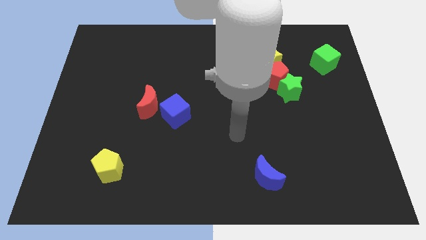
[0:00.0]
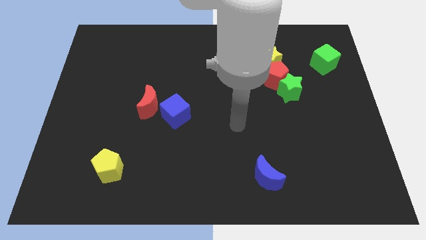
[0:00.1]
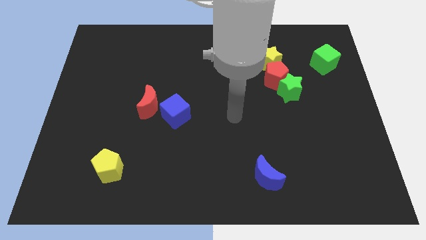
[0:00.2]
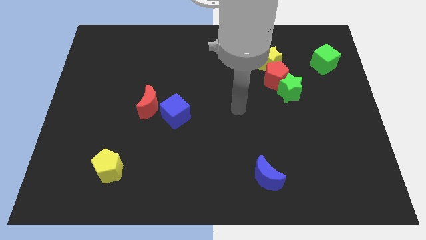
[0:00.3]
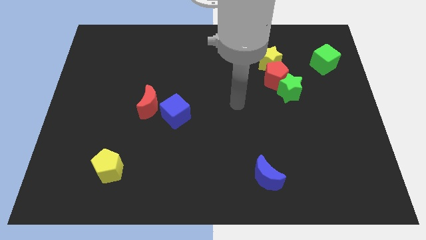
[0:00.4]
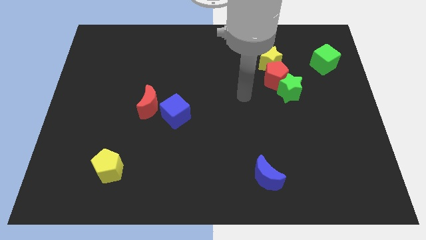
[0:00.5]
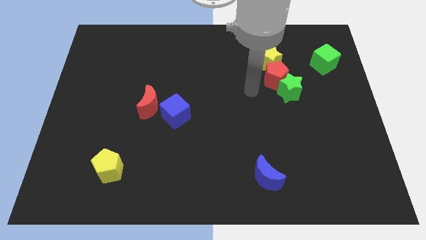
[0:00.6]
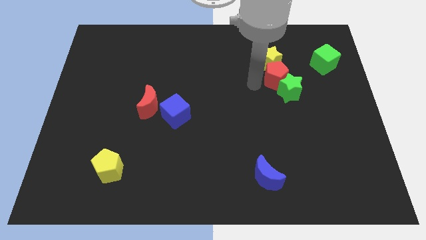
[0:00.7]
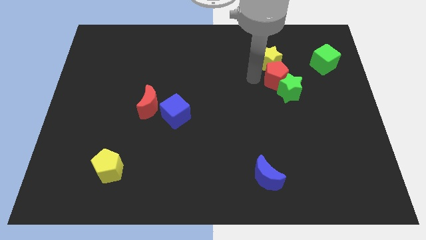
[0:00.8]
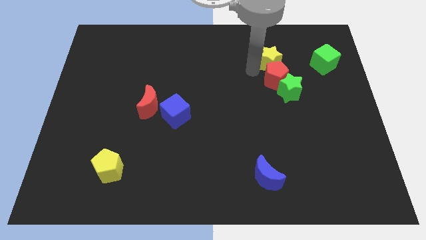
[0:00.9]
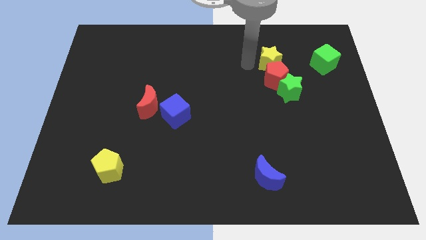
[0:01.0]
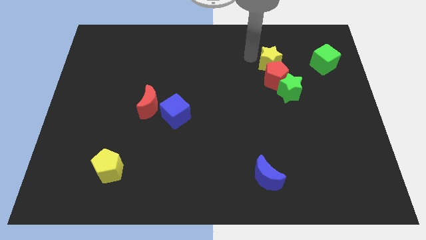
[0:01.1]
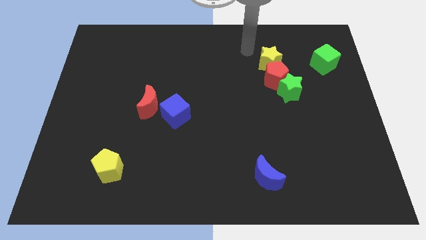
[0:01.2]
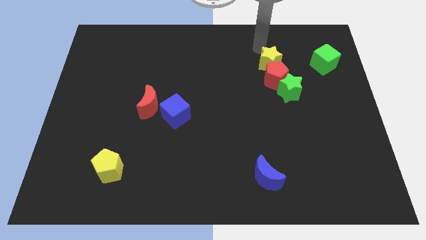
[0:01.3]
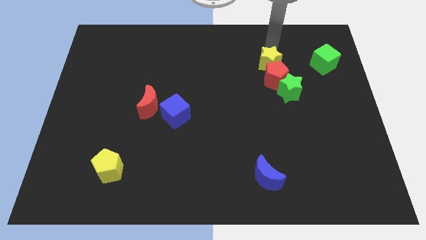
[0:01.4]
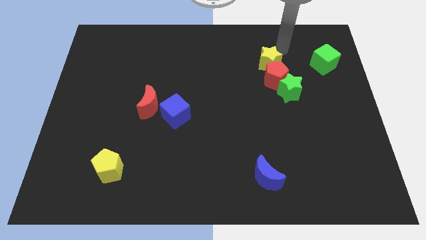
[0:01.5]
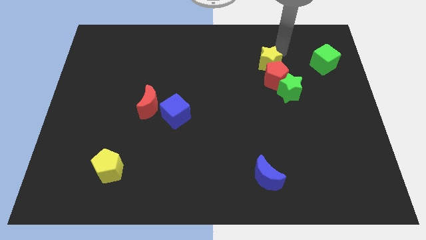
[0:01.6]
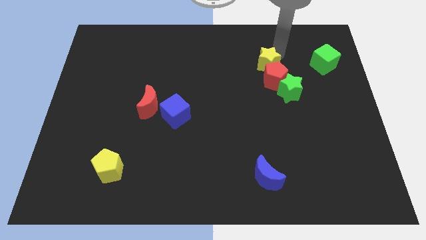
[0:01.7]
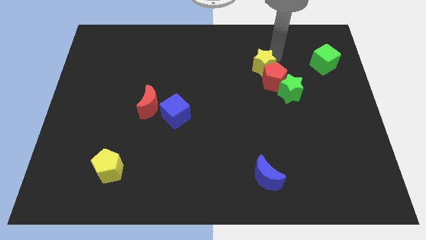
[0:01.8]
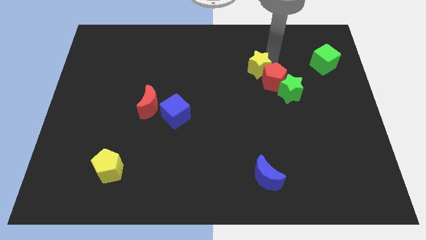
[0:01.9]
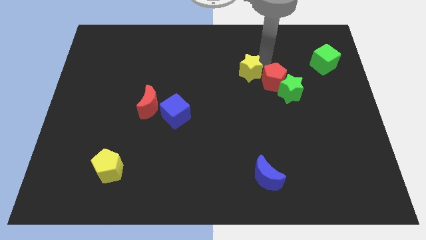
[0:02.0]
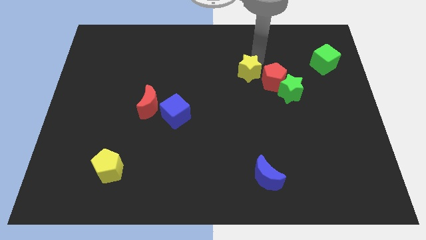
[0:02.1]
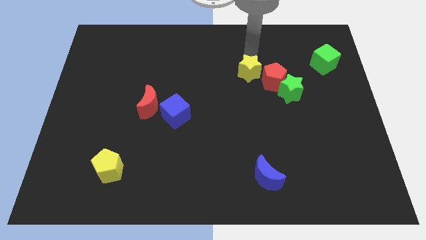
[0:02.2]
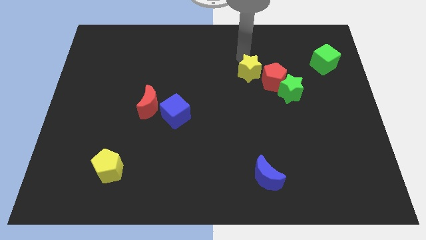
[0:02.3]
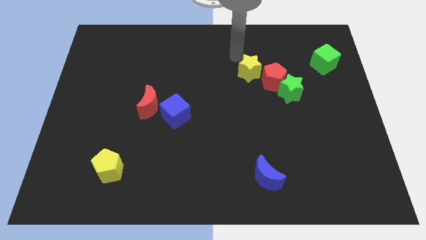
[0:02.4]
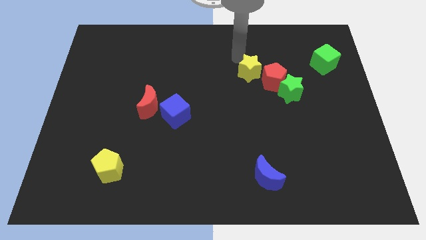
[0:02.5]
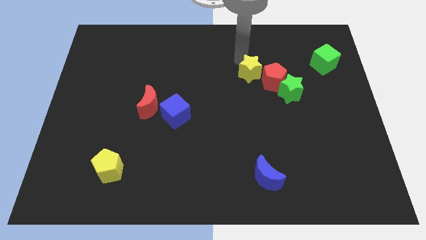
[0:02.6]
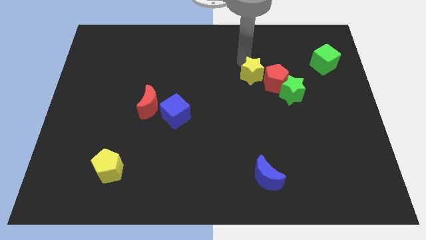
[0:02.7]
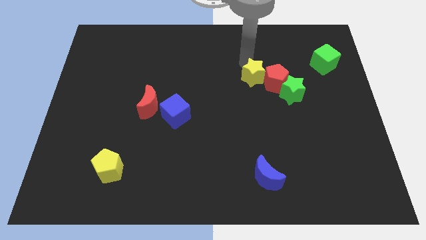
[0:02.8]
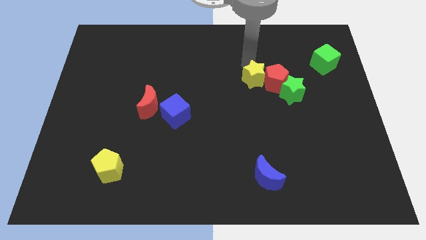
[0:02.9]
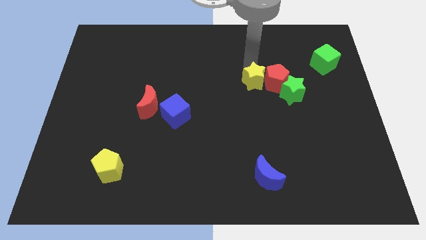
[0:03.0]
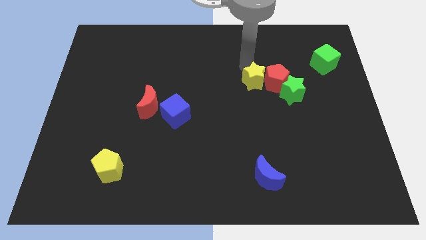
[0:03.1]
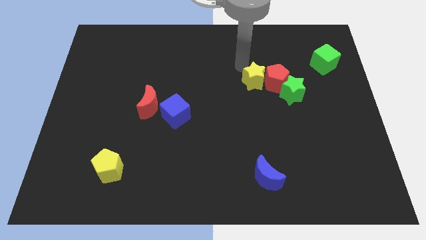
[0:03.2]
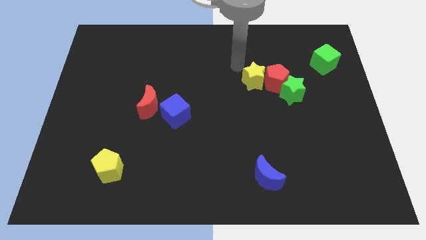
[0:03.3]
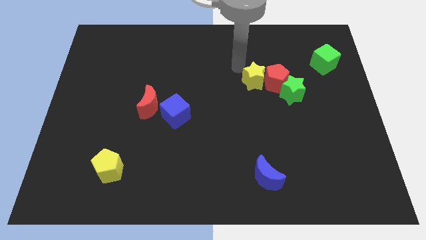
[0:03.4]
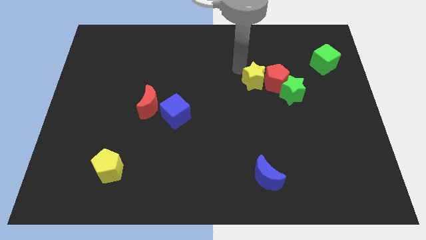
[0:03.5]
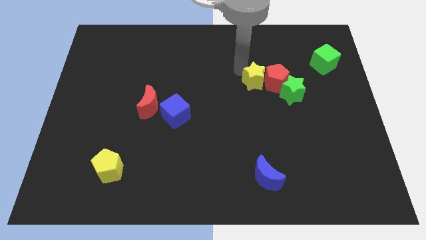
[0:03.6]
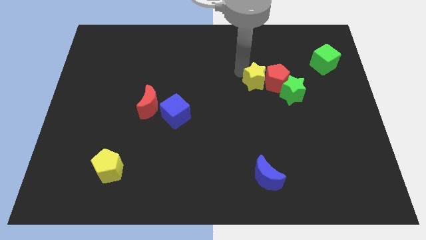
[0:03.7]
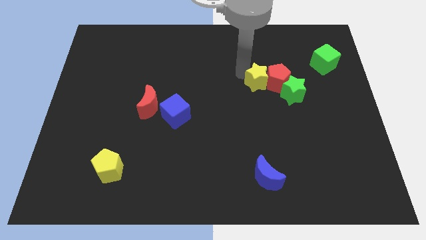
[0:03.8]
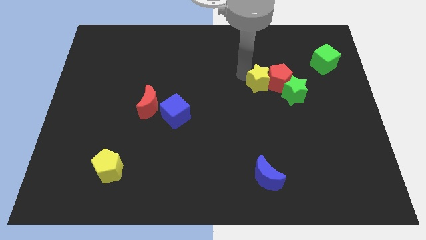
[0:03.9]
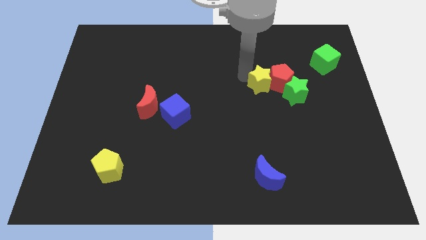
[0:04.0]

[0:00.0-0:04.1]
slide the yellow star a bit downwards

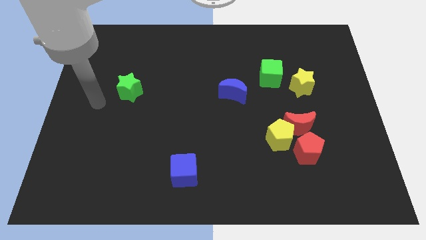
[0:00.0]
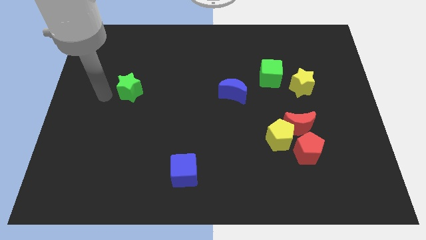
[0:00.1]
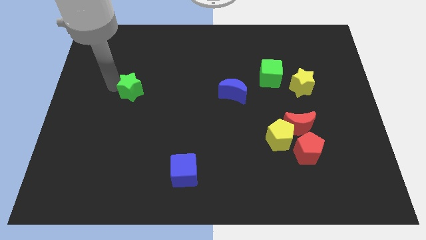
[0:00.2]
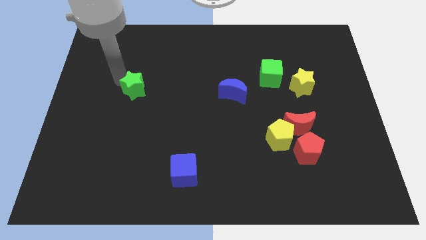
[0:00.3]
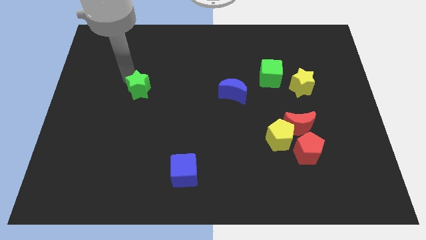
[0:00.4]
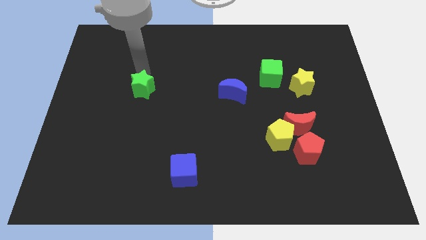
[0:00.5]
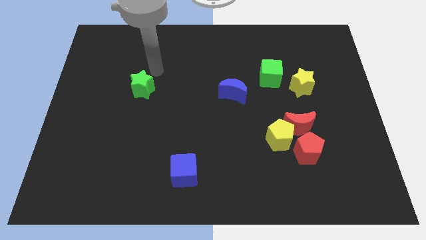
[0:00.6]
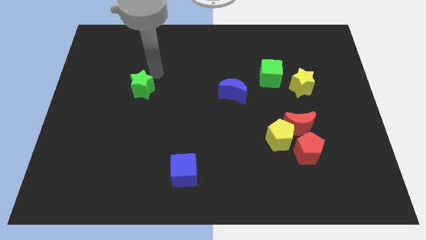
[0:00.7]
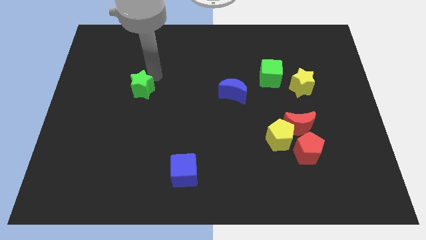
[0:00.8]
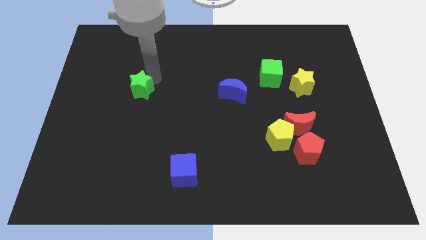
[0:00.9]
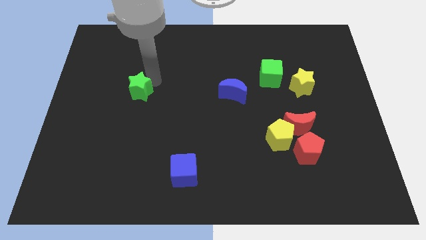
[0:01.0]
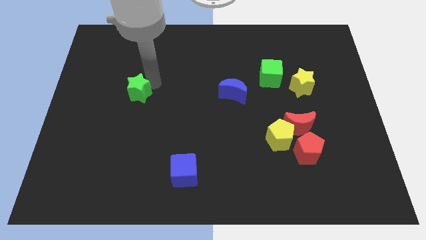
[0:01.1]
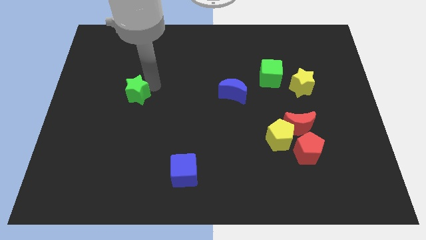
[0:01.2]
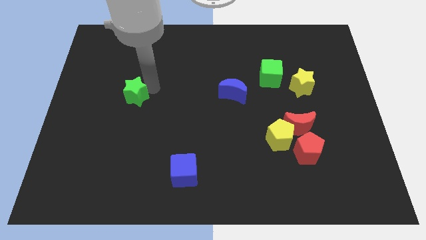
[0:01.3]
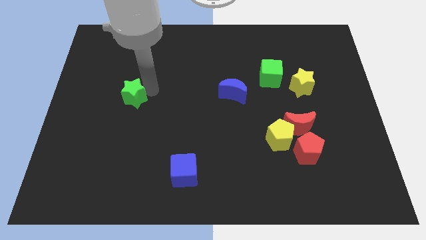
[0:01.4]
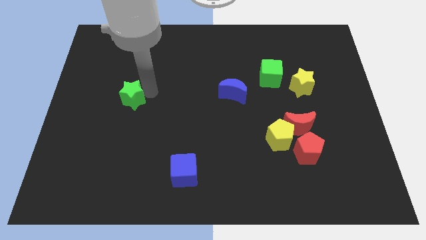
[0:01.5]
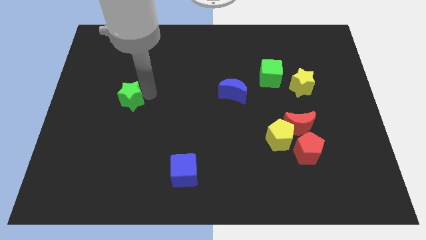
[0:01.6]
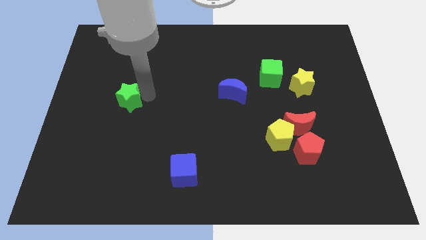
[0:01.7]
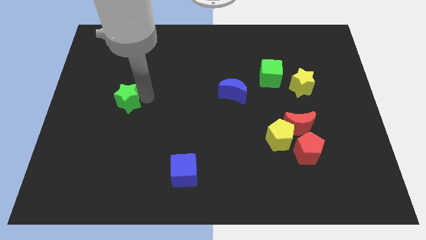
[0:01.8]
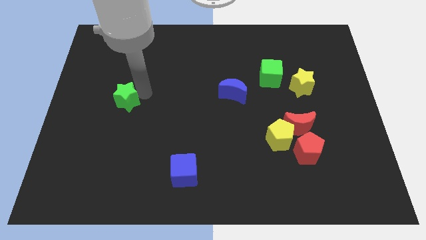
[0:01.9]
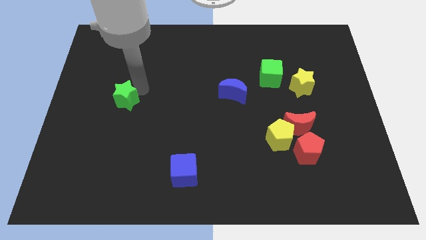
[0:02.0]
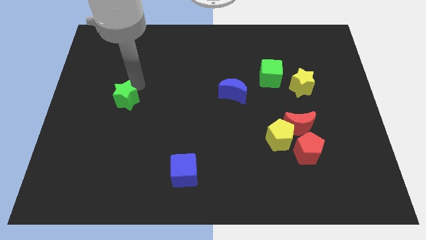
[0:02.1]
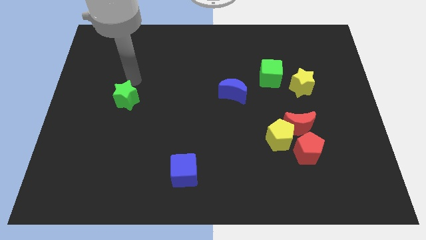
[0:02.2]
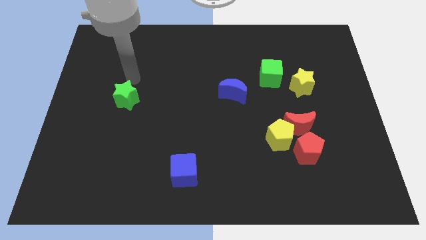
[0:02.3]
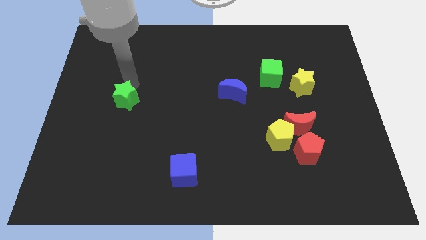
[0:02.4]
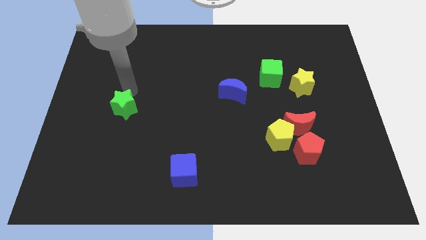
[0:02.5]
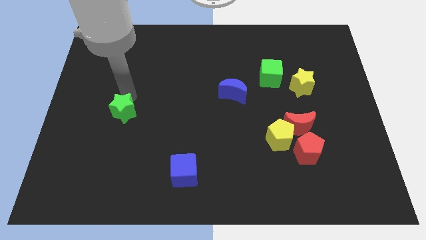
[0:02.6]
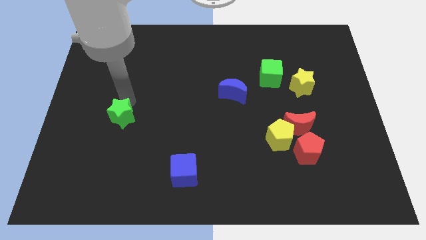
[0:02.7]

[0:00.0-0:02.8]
slightly push the green star downwards

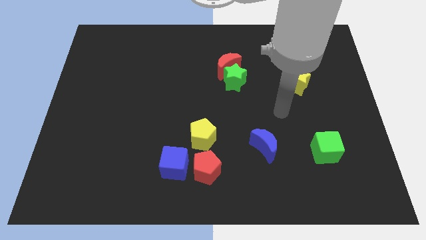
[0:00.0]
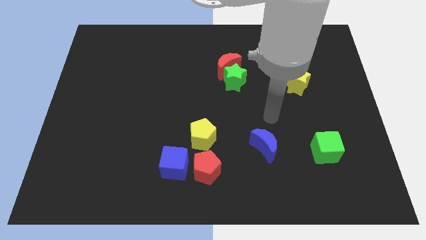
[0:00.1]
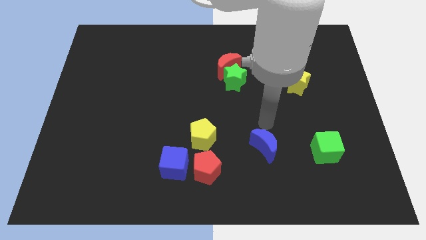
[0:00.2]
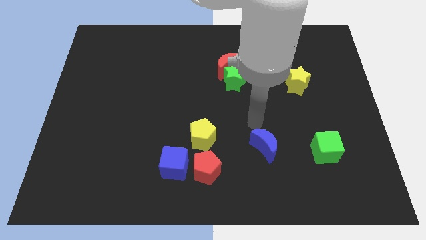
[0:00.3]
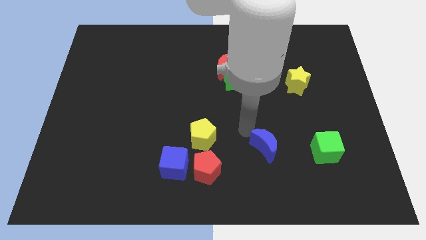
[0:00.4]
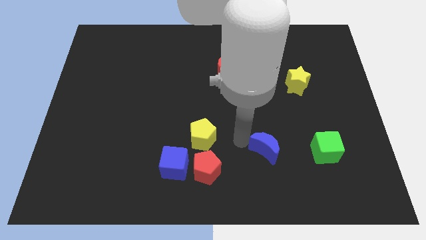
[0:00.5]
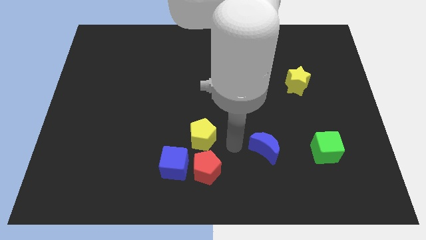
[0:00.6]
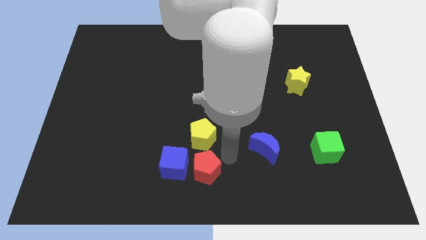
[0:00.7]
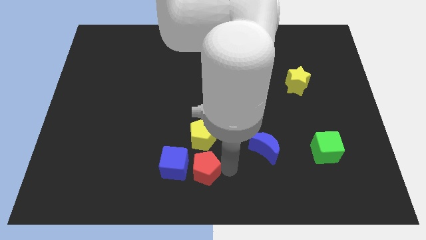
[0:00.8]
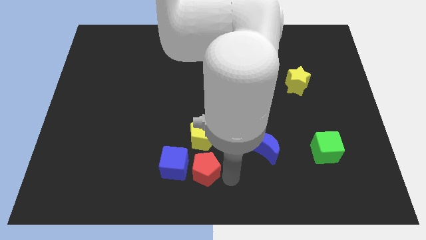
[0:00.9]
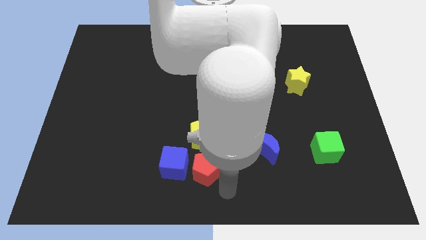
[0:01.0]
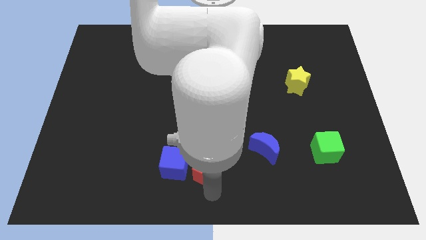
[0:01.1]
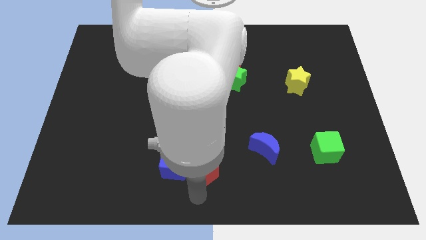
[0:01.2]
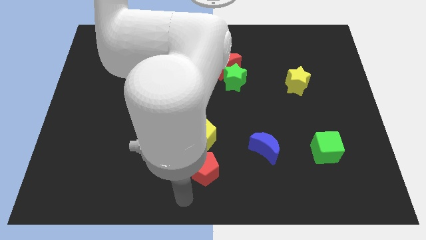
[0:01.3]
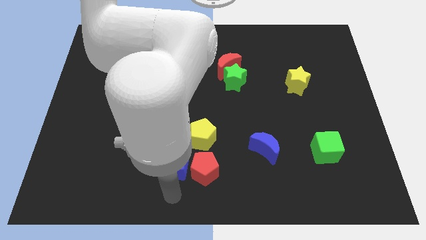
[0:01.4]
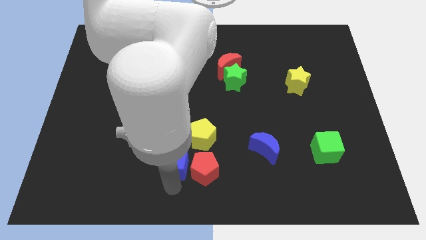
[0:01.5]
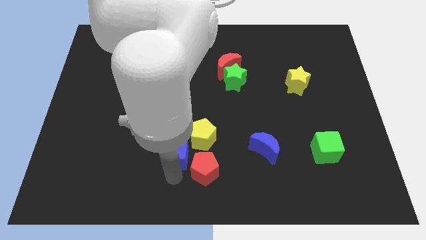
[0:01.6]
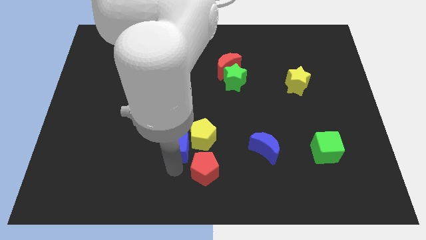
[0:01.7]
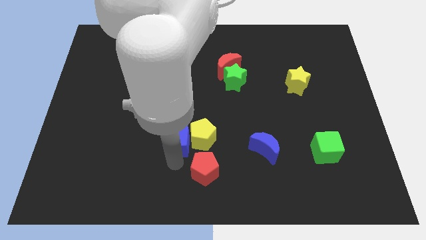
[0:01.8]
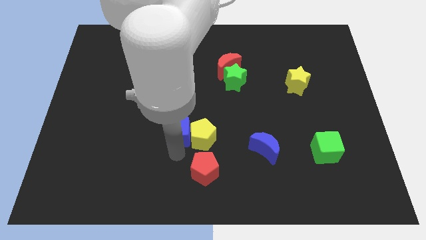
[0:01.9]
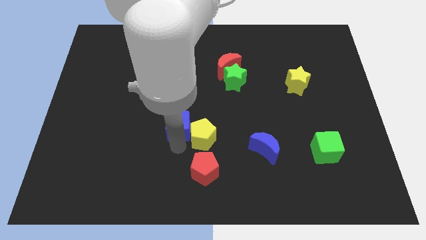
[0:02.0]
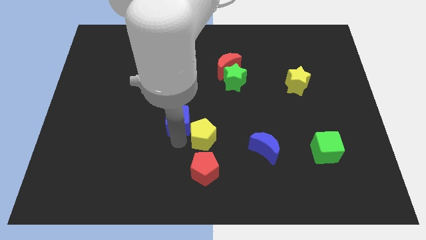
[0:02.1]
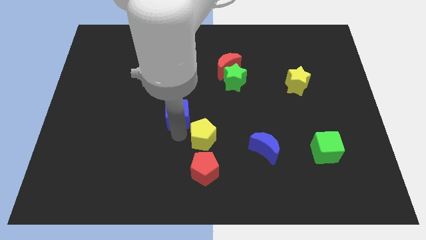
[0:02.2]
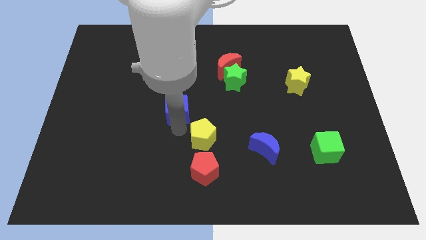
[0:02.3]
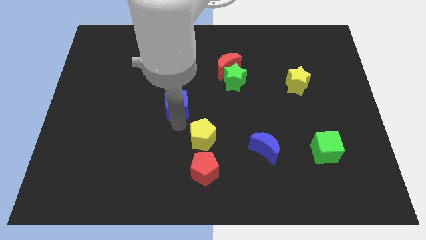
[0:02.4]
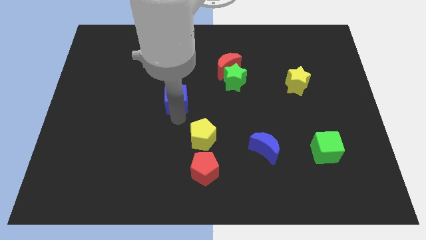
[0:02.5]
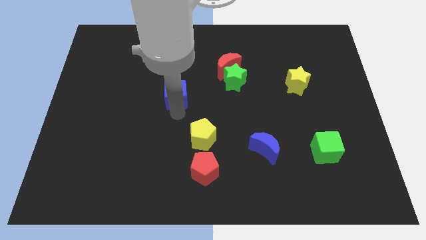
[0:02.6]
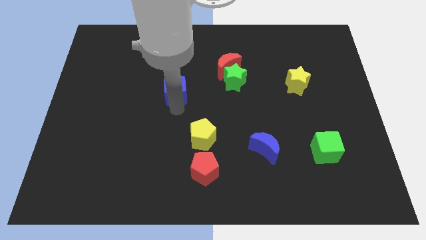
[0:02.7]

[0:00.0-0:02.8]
move the blue cube upwards
